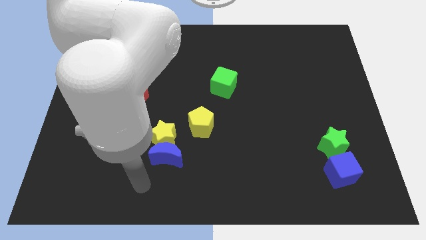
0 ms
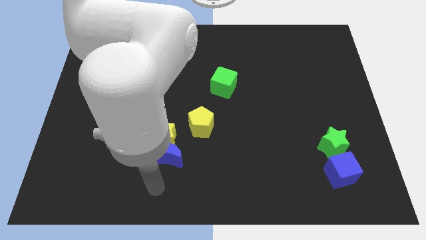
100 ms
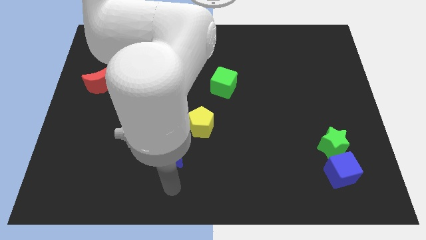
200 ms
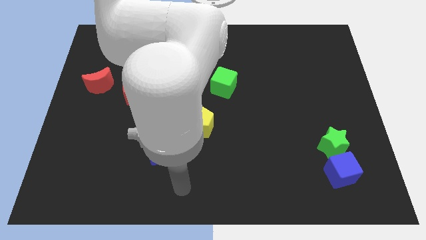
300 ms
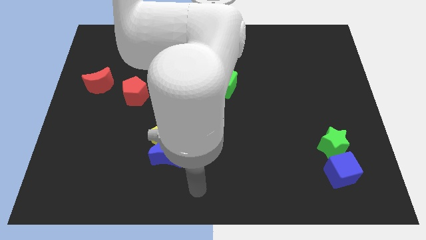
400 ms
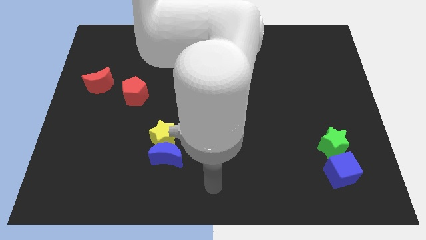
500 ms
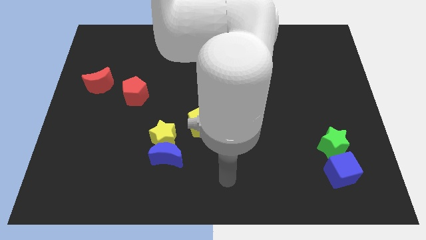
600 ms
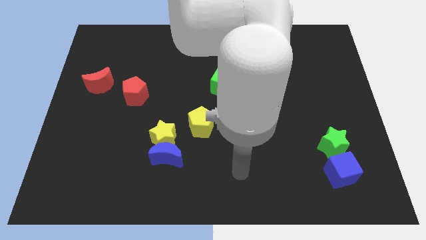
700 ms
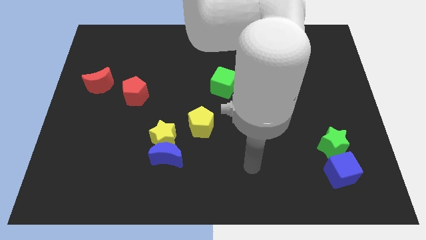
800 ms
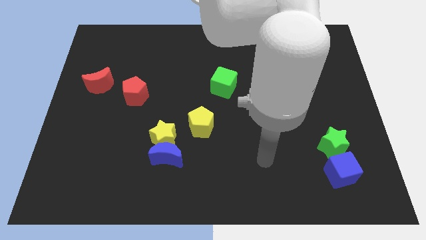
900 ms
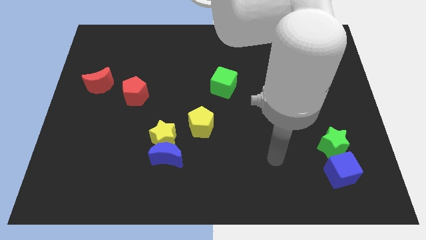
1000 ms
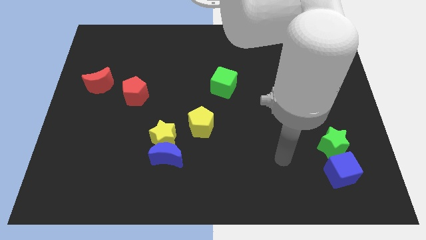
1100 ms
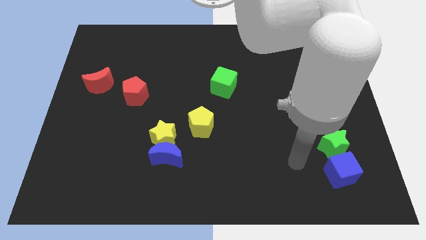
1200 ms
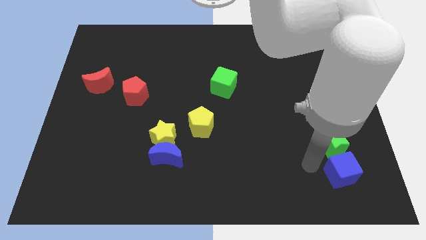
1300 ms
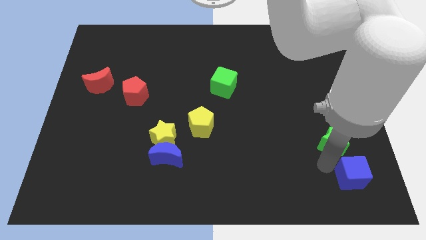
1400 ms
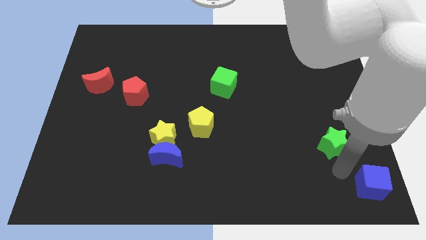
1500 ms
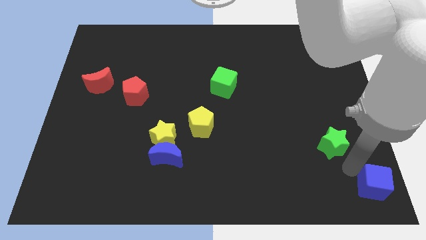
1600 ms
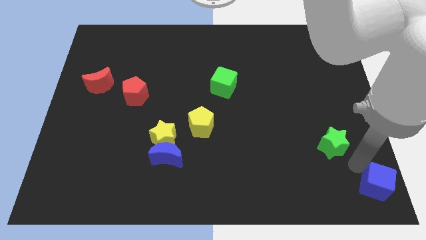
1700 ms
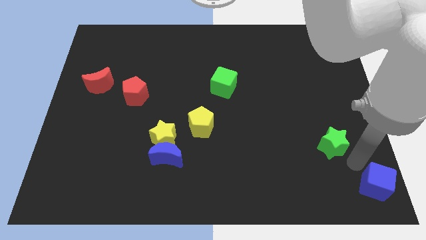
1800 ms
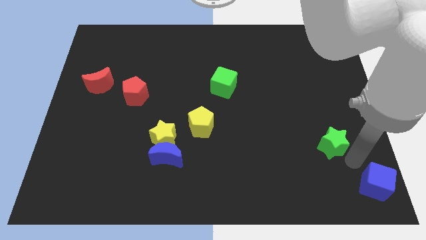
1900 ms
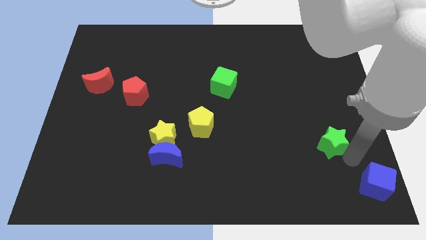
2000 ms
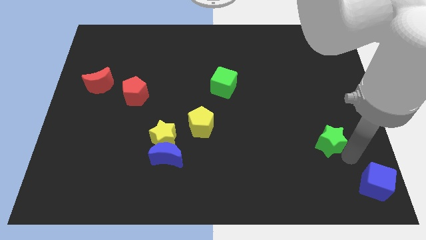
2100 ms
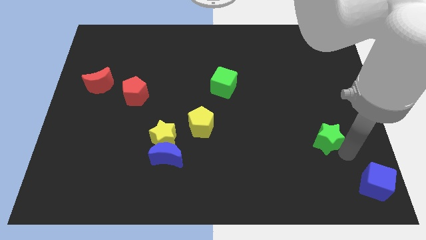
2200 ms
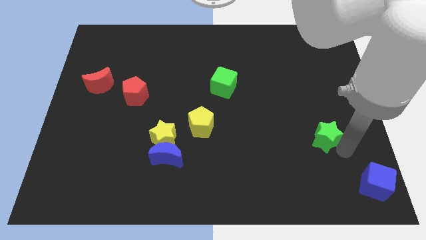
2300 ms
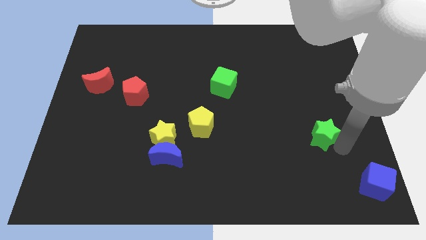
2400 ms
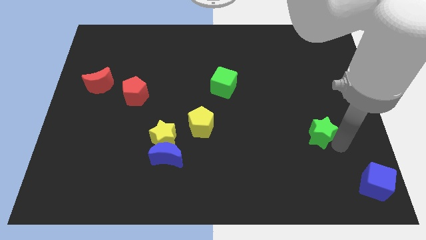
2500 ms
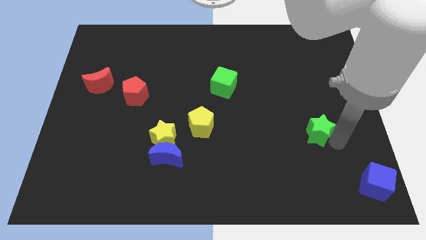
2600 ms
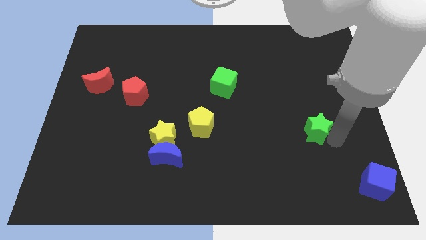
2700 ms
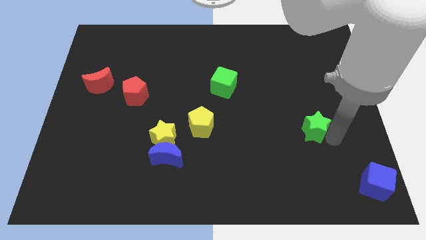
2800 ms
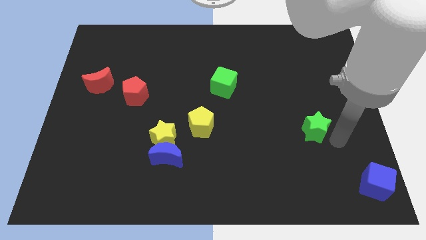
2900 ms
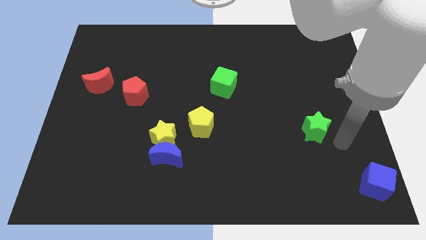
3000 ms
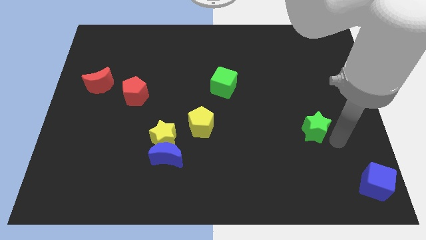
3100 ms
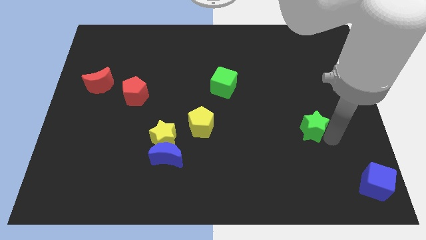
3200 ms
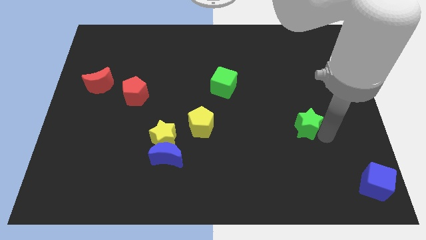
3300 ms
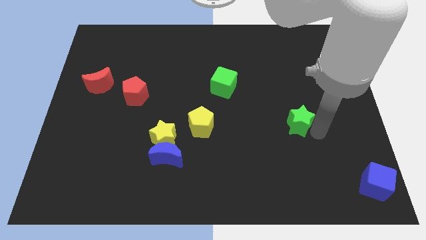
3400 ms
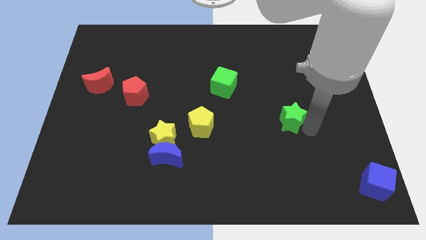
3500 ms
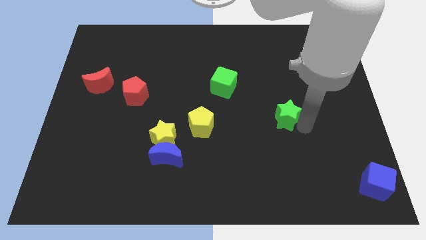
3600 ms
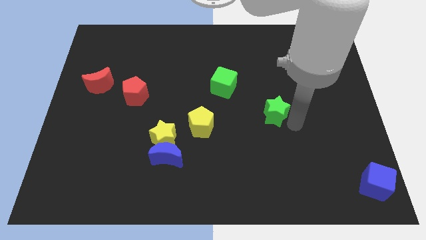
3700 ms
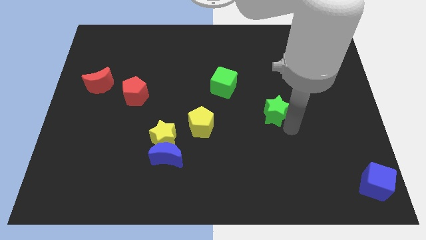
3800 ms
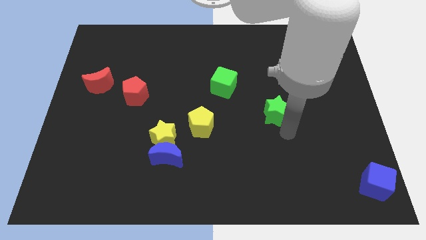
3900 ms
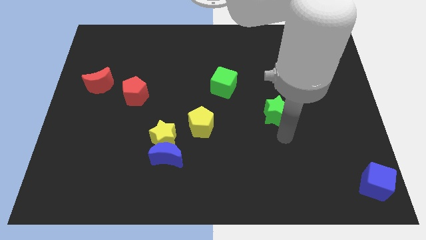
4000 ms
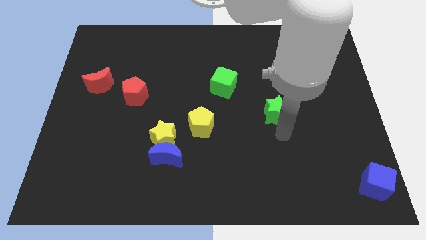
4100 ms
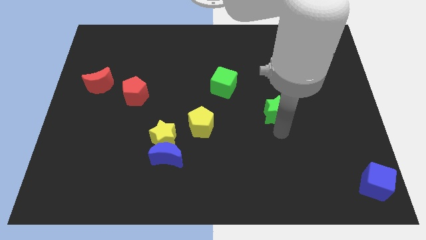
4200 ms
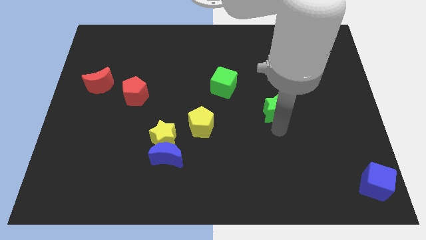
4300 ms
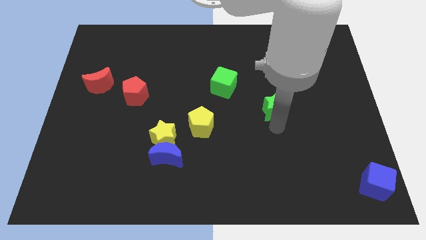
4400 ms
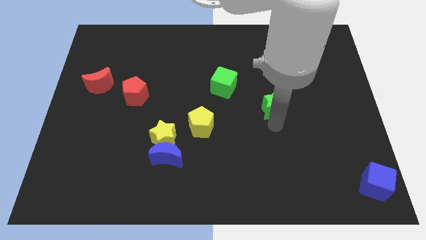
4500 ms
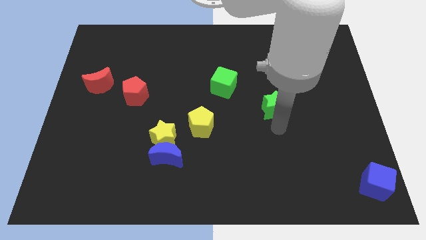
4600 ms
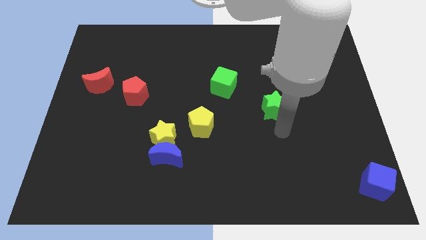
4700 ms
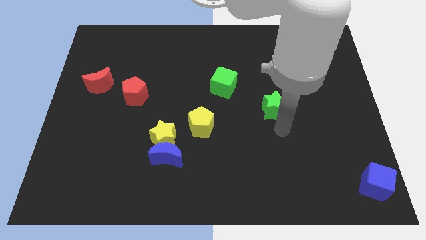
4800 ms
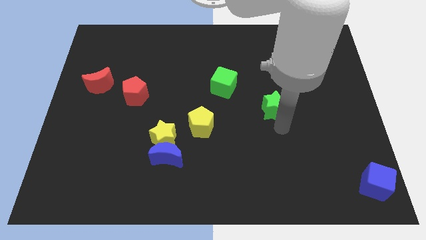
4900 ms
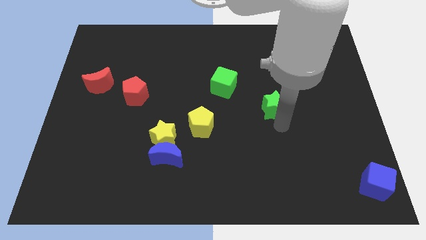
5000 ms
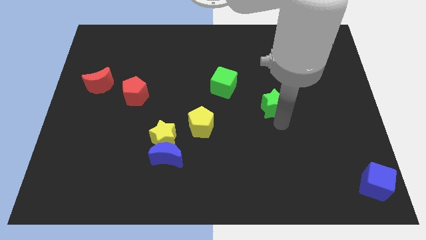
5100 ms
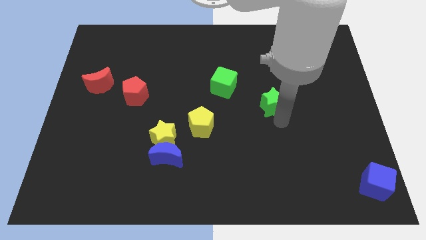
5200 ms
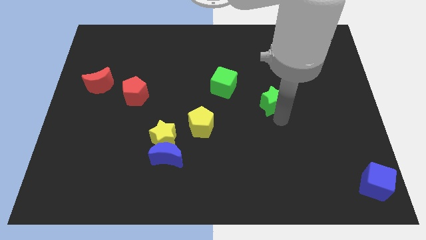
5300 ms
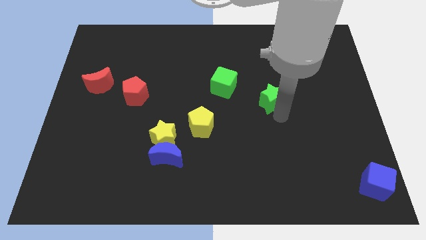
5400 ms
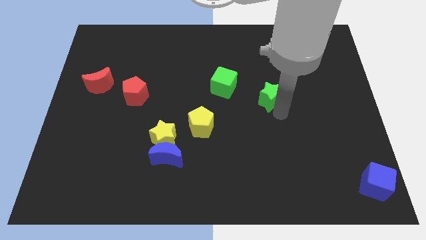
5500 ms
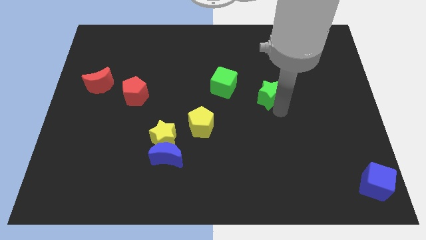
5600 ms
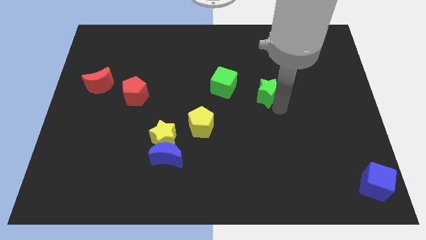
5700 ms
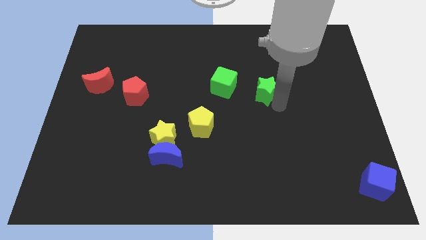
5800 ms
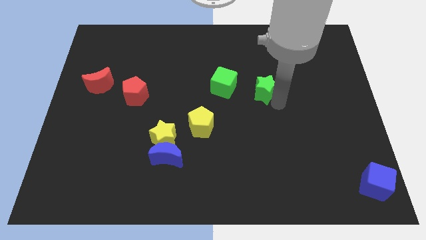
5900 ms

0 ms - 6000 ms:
push the green star upwards and then to the left

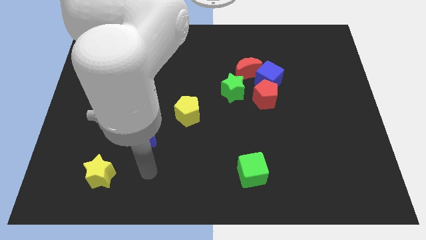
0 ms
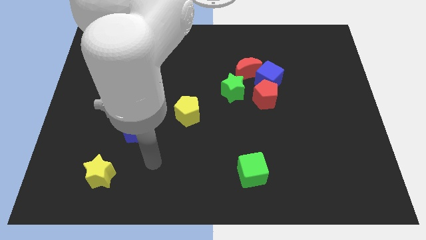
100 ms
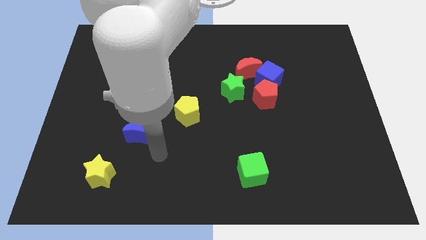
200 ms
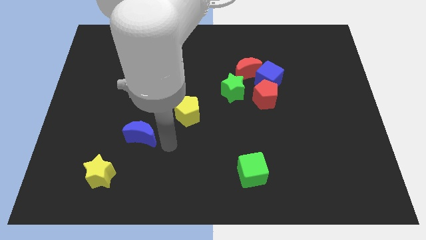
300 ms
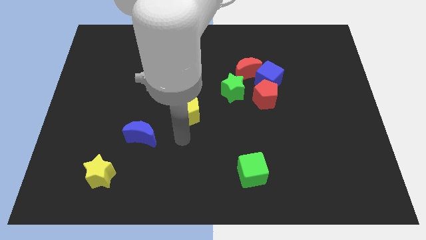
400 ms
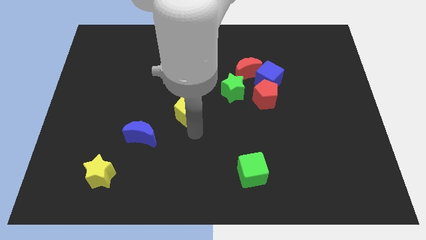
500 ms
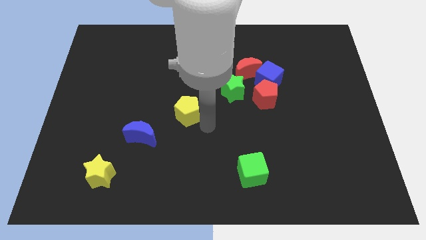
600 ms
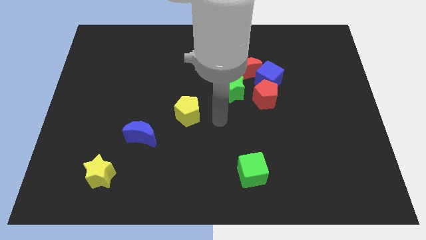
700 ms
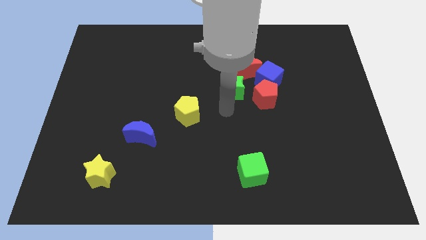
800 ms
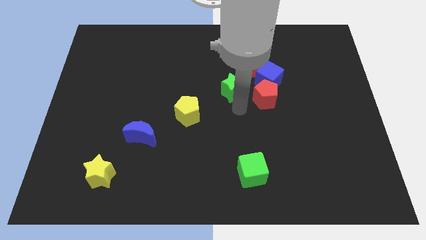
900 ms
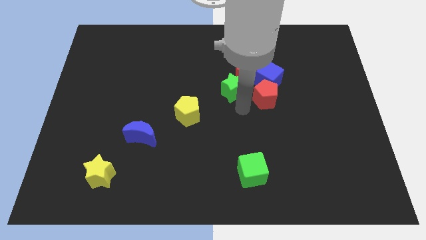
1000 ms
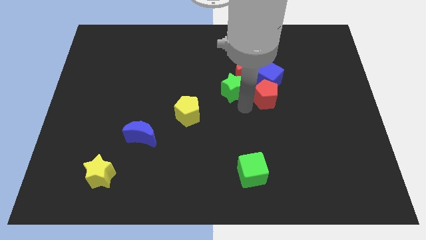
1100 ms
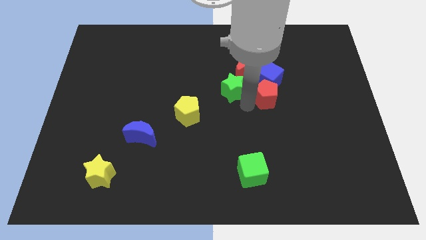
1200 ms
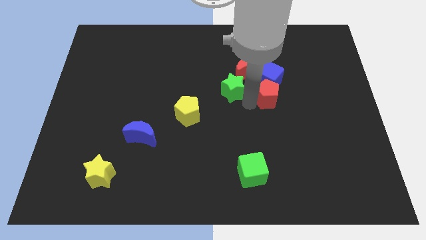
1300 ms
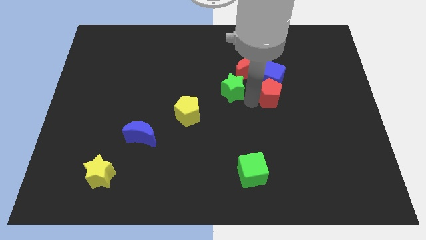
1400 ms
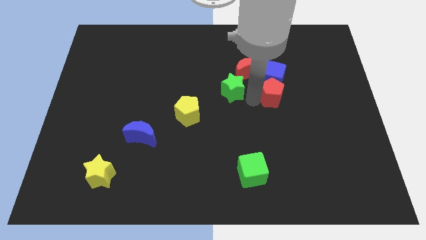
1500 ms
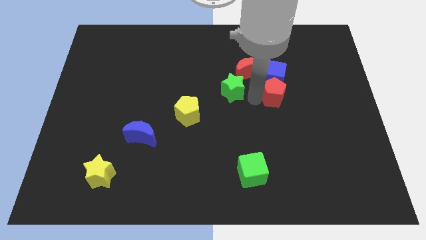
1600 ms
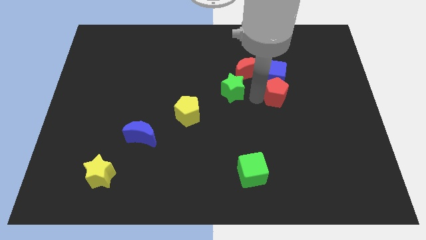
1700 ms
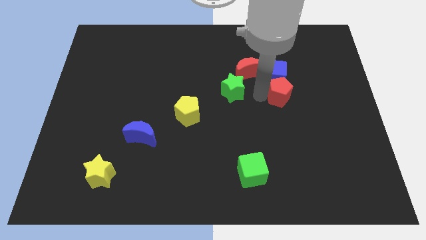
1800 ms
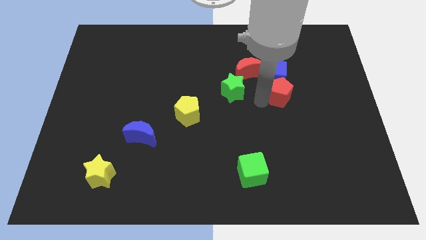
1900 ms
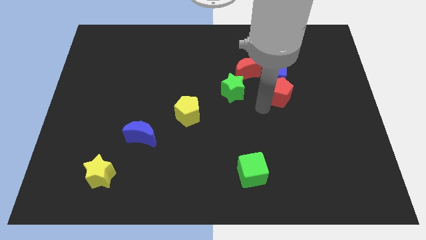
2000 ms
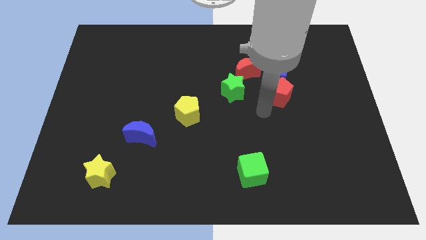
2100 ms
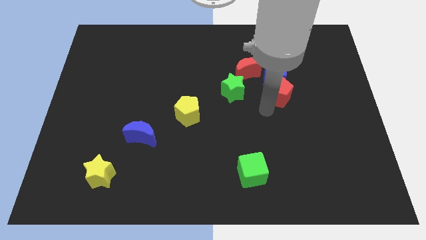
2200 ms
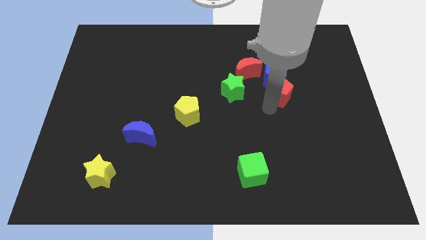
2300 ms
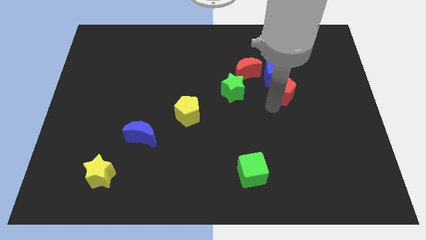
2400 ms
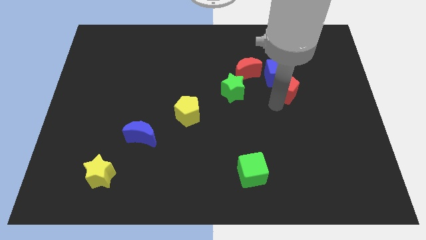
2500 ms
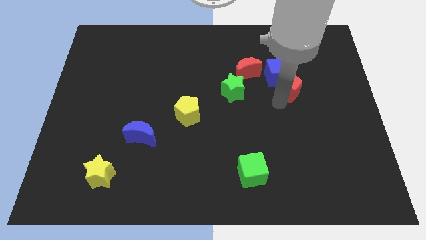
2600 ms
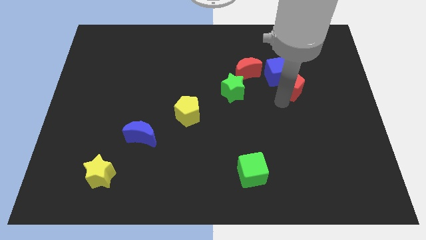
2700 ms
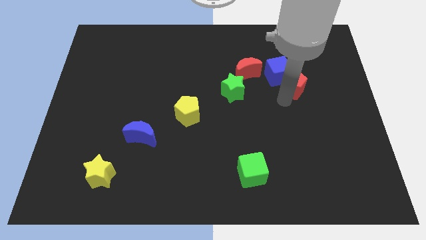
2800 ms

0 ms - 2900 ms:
slightly push the red pentagon upwards and then to the right
